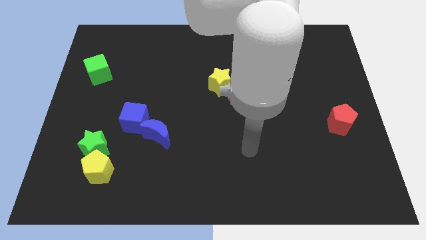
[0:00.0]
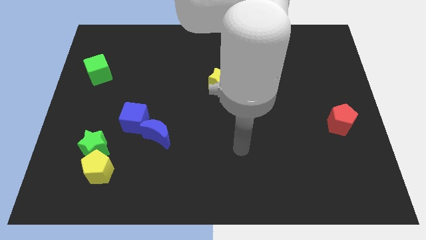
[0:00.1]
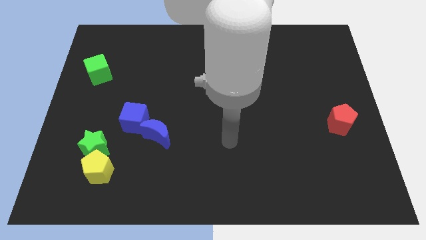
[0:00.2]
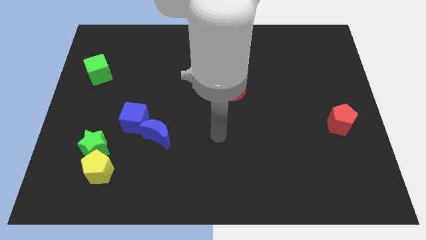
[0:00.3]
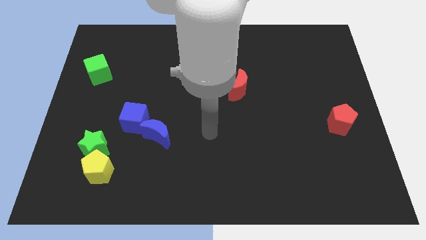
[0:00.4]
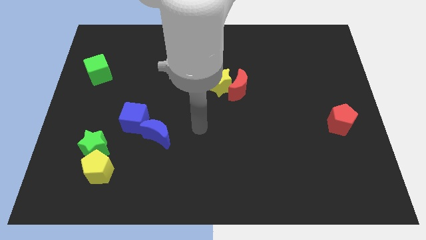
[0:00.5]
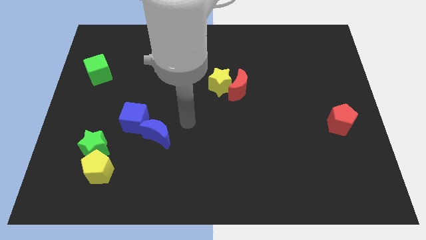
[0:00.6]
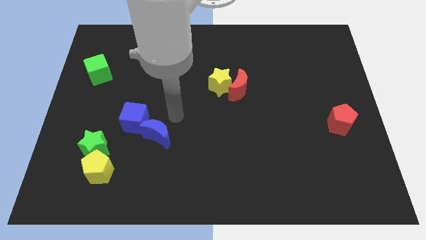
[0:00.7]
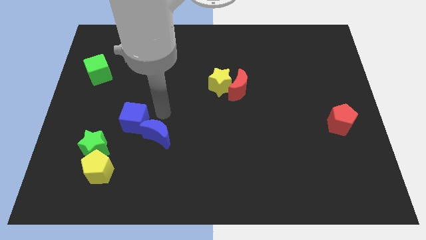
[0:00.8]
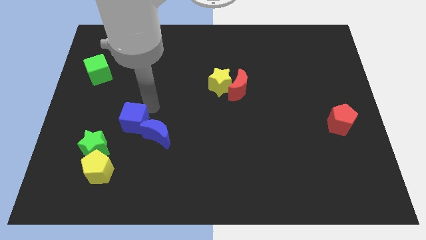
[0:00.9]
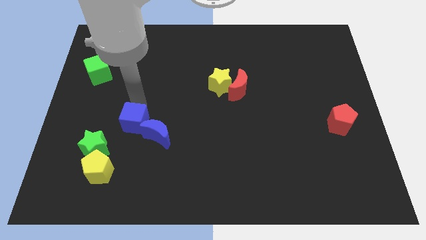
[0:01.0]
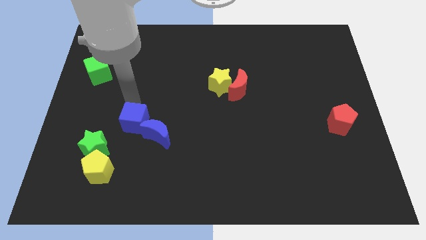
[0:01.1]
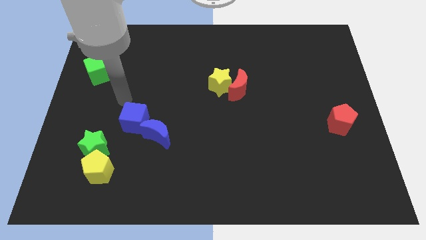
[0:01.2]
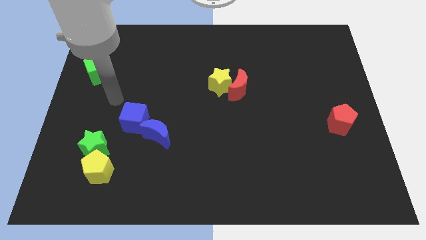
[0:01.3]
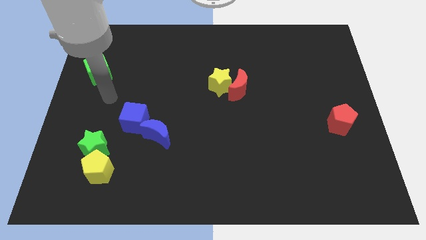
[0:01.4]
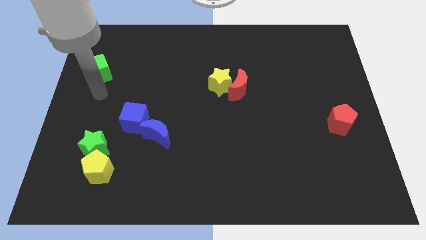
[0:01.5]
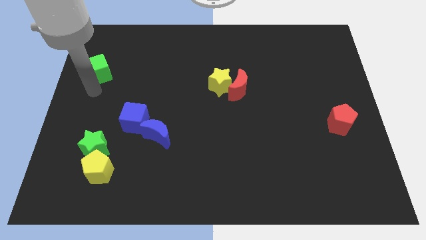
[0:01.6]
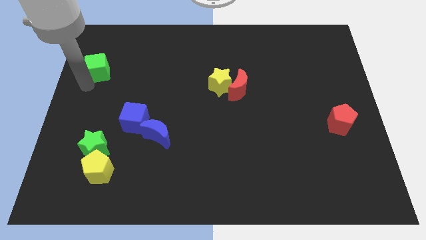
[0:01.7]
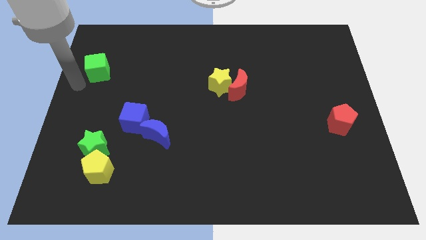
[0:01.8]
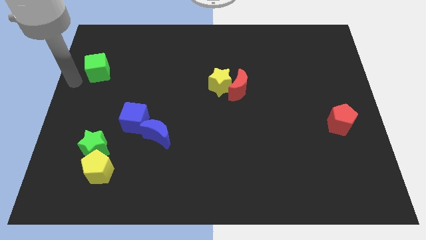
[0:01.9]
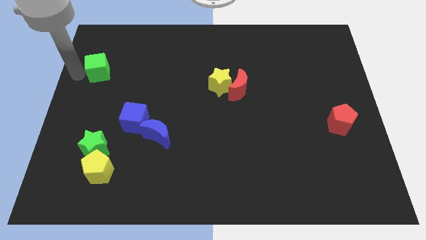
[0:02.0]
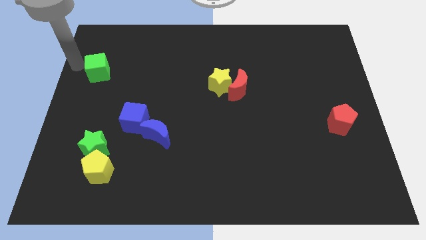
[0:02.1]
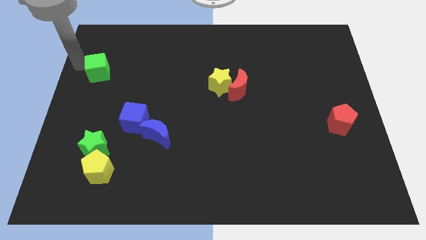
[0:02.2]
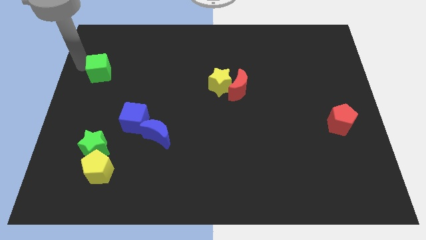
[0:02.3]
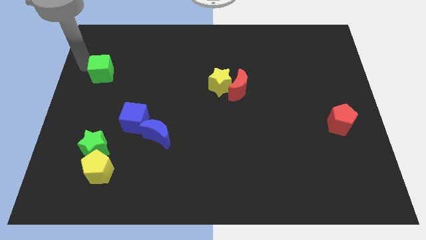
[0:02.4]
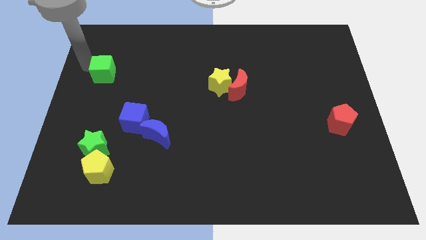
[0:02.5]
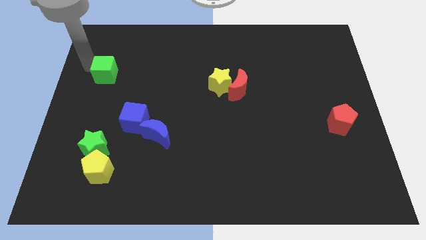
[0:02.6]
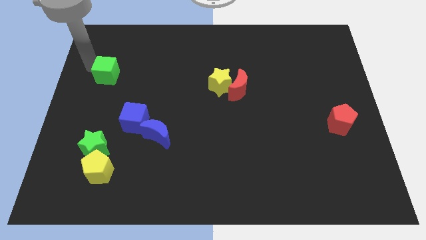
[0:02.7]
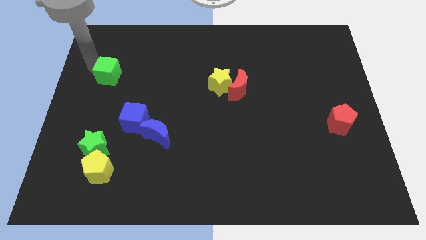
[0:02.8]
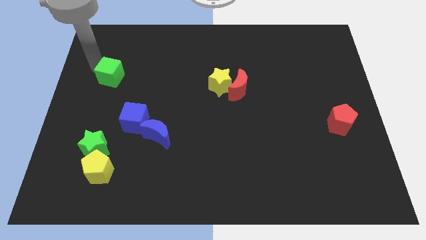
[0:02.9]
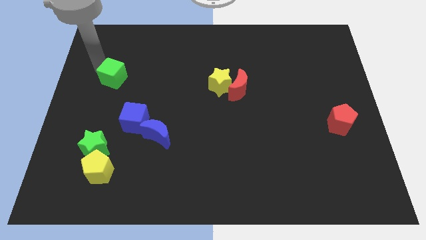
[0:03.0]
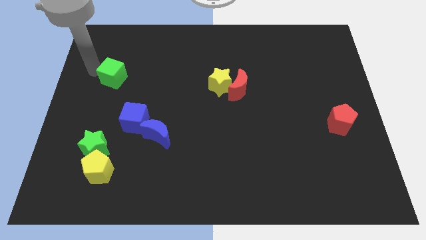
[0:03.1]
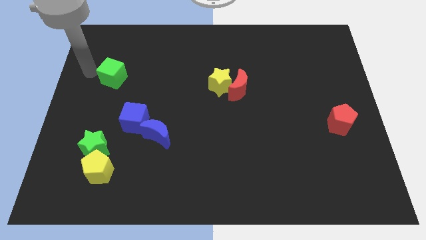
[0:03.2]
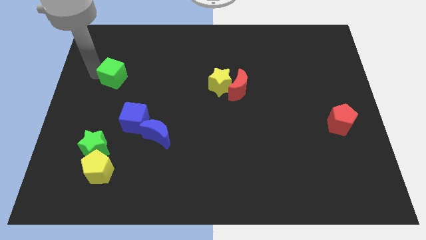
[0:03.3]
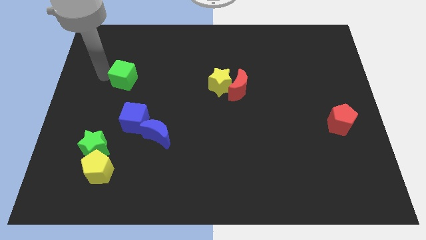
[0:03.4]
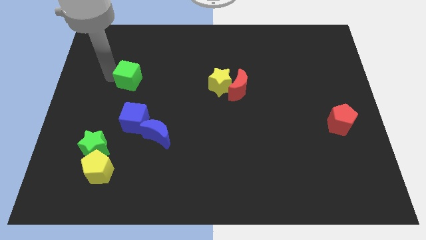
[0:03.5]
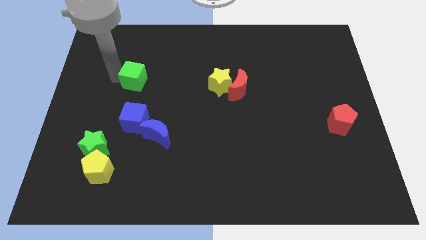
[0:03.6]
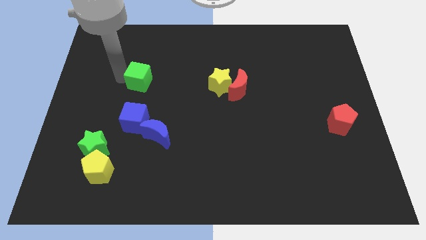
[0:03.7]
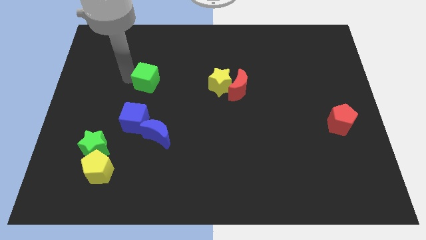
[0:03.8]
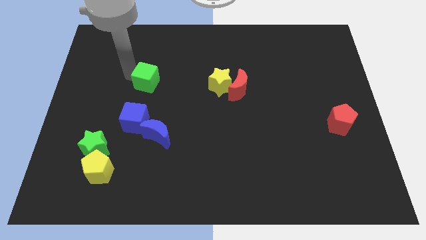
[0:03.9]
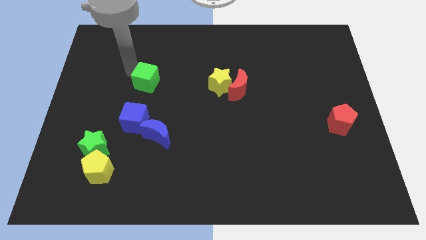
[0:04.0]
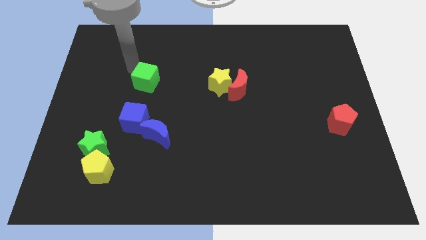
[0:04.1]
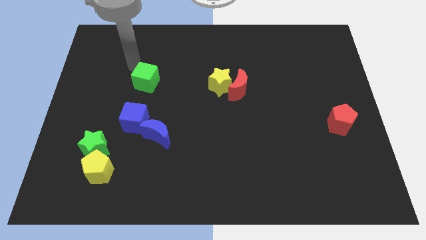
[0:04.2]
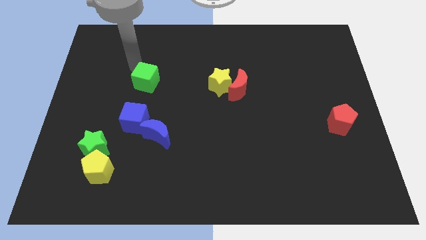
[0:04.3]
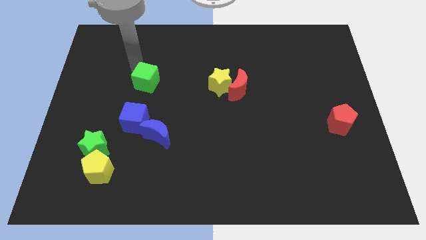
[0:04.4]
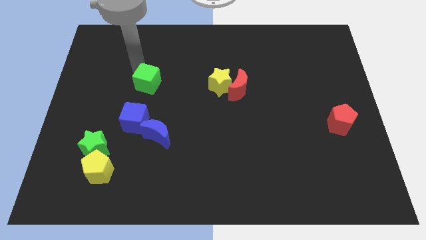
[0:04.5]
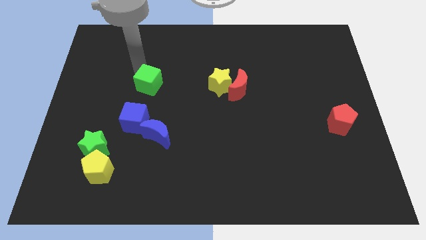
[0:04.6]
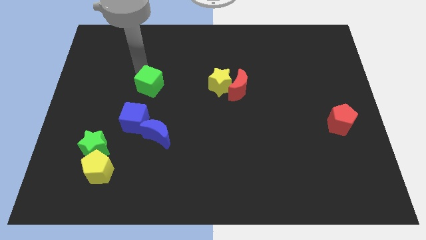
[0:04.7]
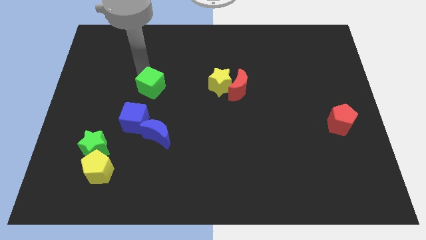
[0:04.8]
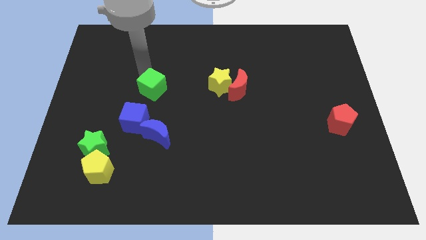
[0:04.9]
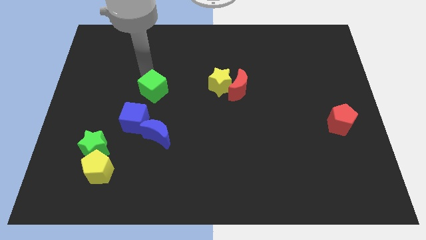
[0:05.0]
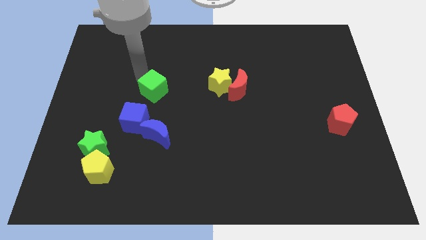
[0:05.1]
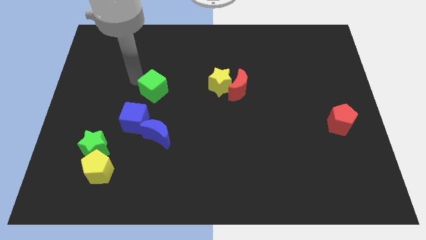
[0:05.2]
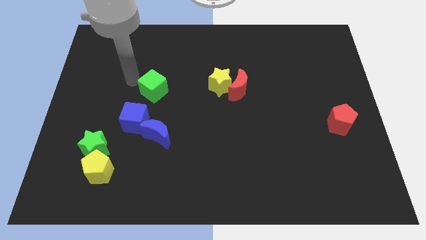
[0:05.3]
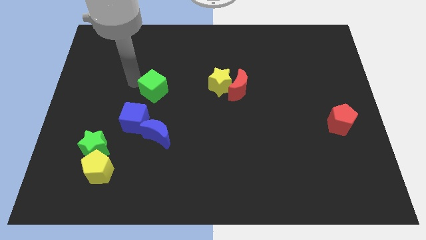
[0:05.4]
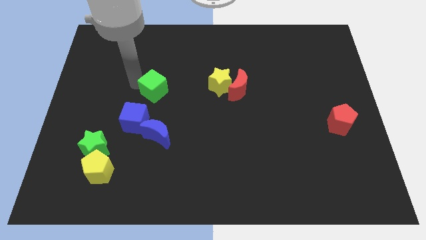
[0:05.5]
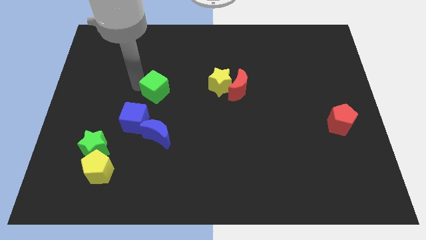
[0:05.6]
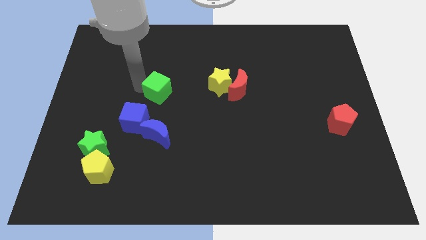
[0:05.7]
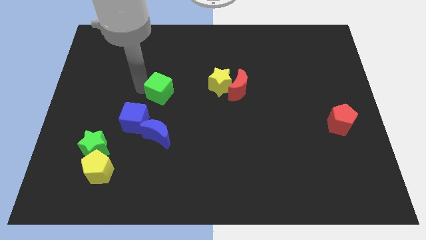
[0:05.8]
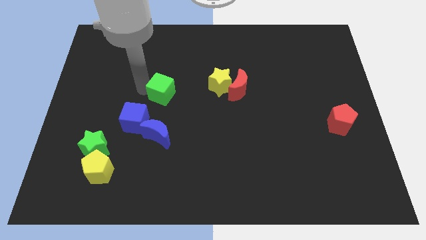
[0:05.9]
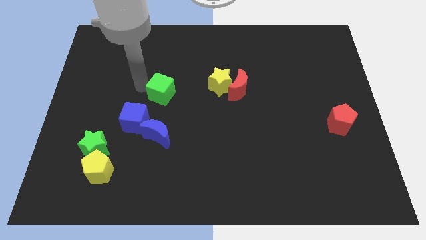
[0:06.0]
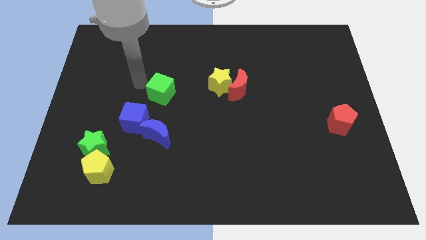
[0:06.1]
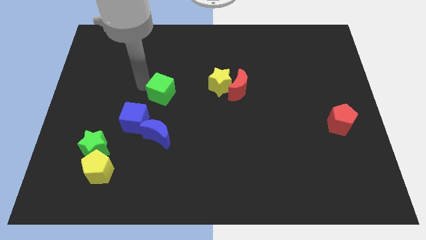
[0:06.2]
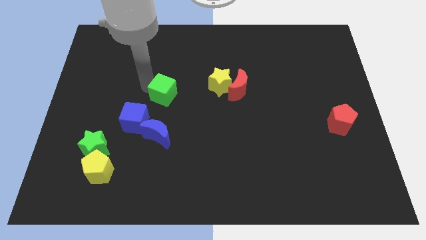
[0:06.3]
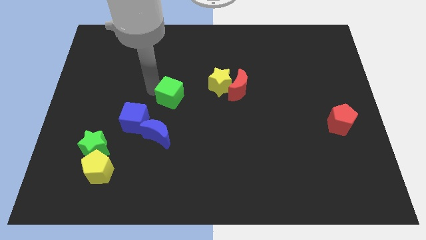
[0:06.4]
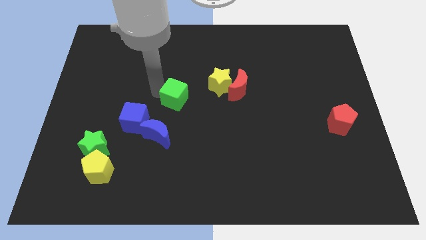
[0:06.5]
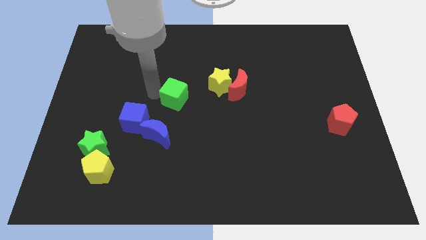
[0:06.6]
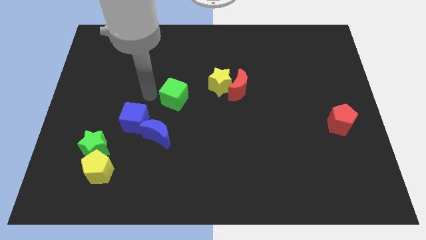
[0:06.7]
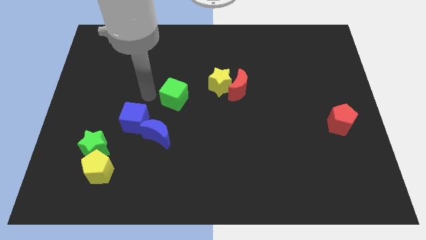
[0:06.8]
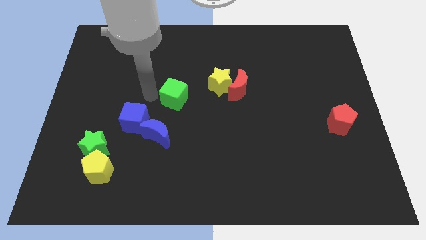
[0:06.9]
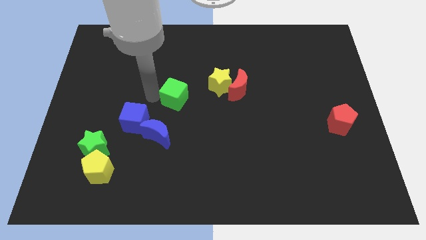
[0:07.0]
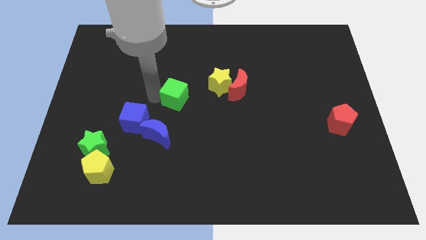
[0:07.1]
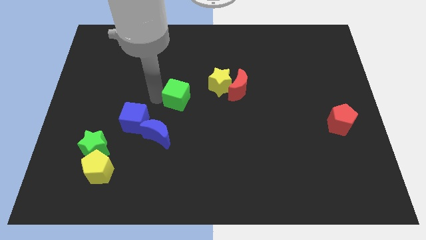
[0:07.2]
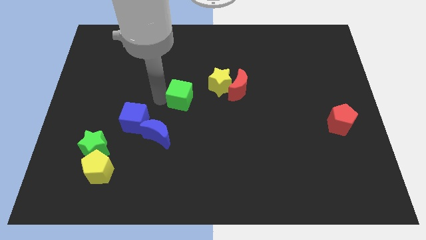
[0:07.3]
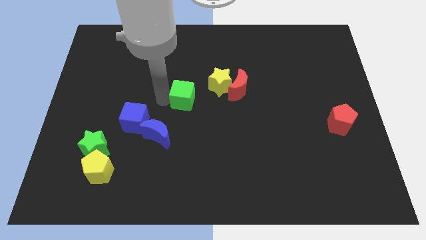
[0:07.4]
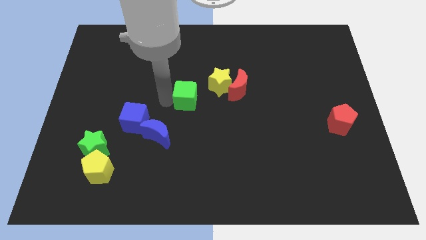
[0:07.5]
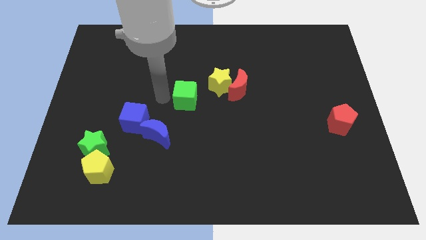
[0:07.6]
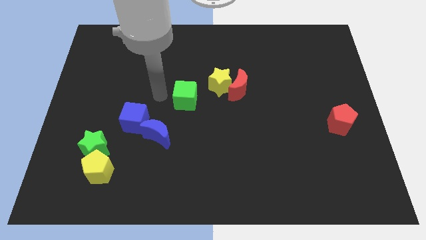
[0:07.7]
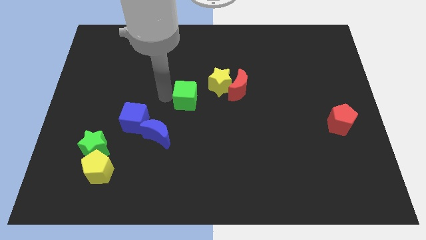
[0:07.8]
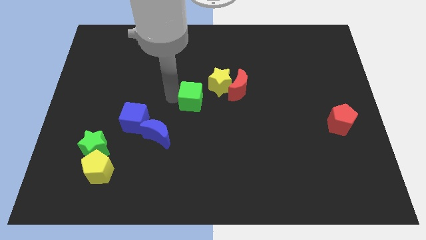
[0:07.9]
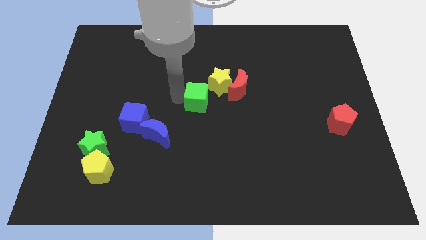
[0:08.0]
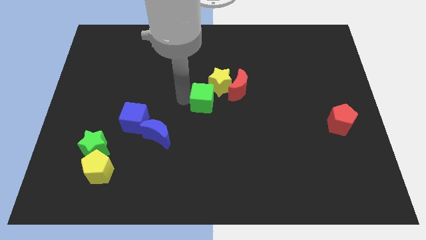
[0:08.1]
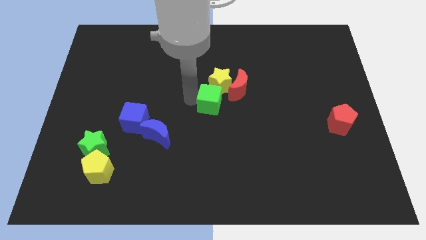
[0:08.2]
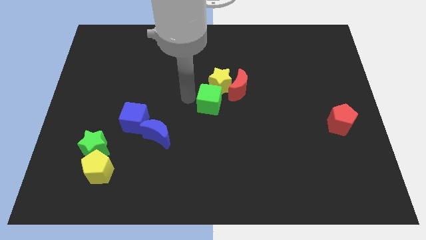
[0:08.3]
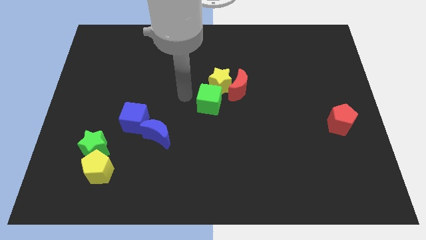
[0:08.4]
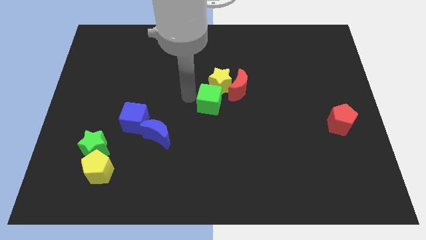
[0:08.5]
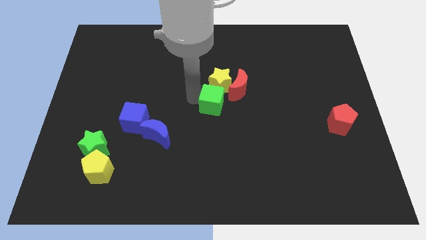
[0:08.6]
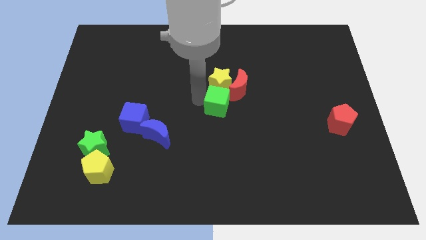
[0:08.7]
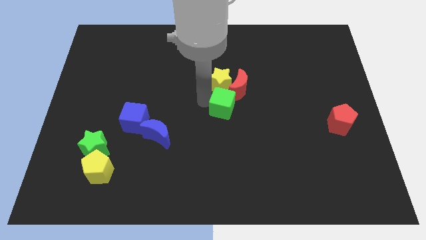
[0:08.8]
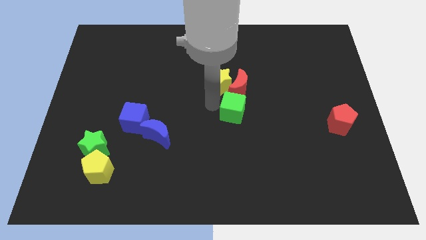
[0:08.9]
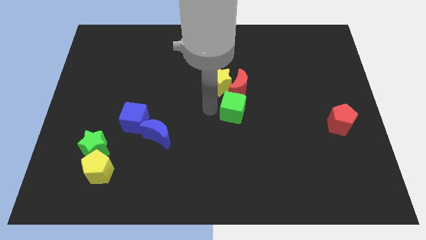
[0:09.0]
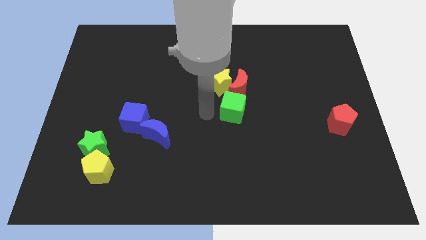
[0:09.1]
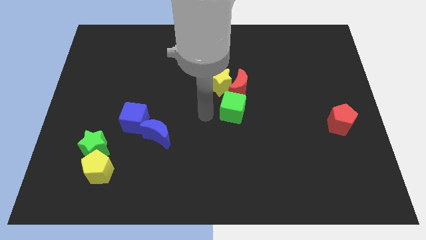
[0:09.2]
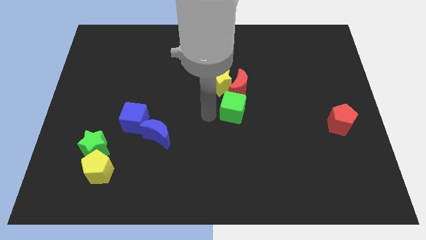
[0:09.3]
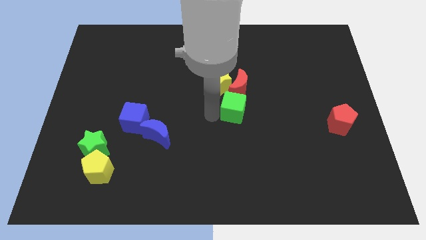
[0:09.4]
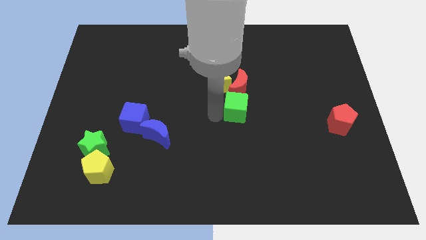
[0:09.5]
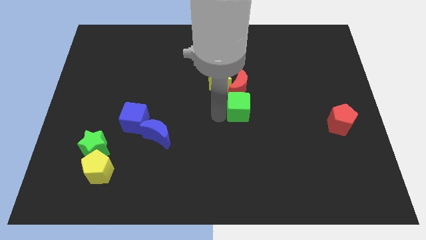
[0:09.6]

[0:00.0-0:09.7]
slide the green cube diagonally down and to the right of the red moon
